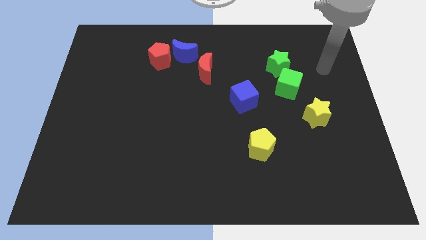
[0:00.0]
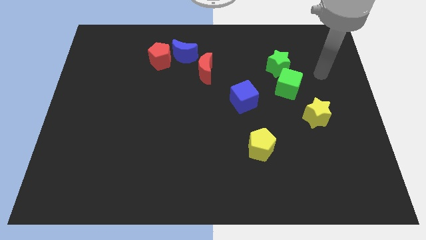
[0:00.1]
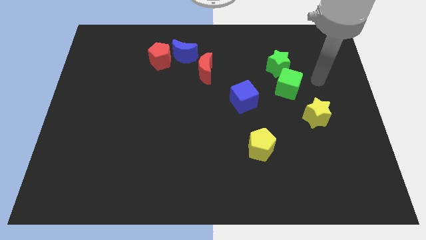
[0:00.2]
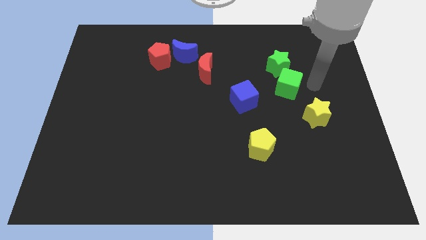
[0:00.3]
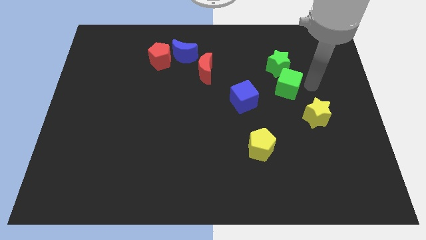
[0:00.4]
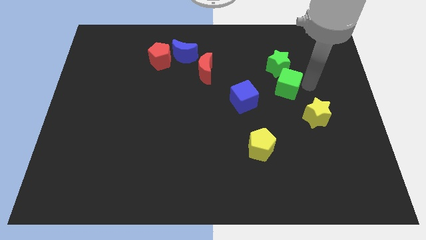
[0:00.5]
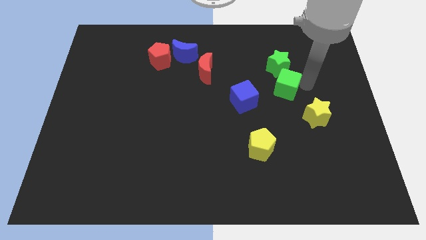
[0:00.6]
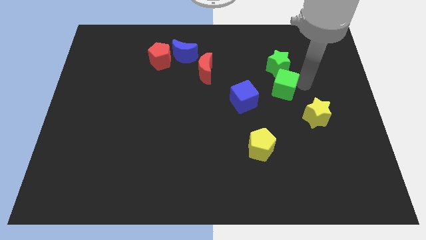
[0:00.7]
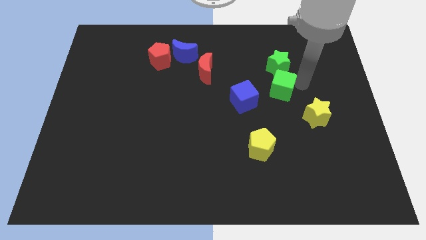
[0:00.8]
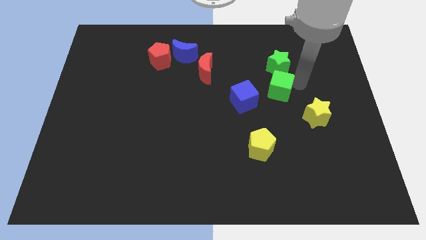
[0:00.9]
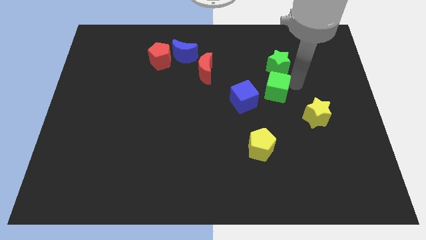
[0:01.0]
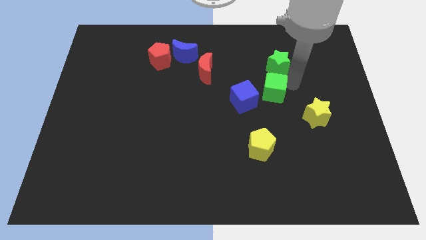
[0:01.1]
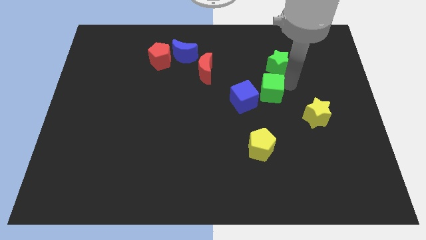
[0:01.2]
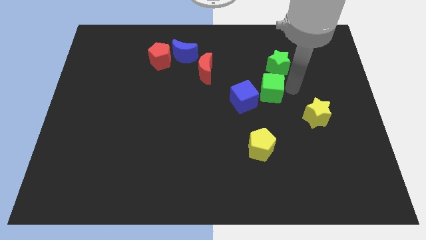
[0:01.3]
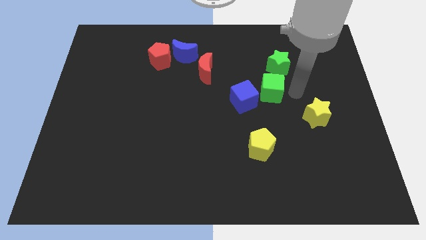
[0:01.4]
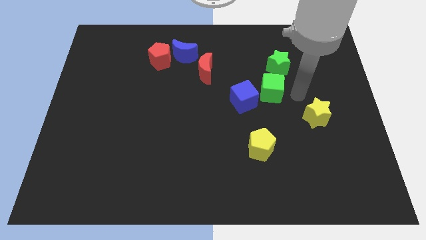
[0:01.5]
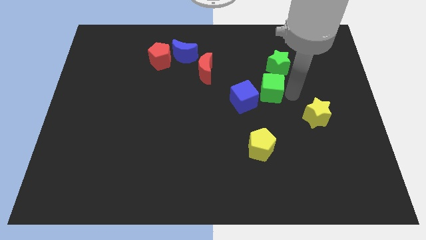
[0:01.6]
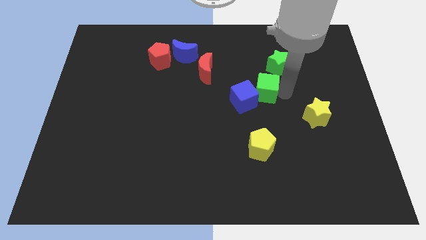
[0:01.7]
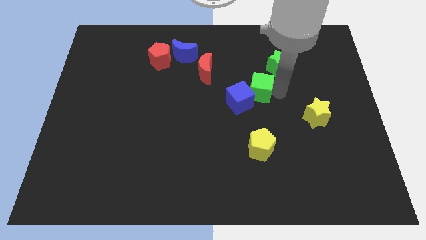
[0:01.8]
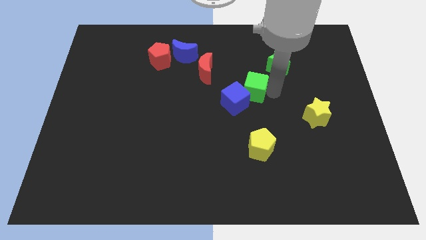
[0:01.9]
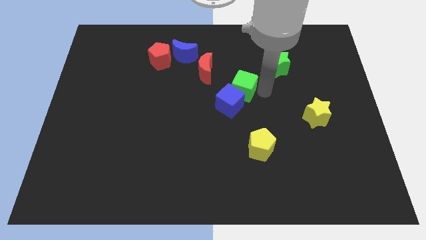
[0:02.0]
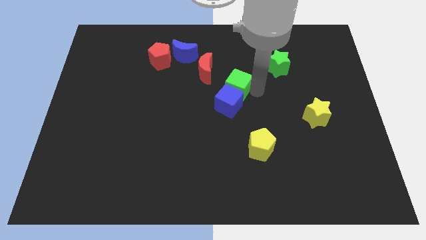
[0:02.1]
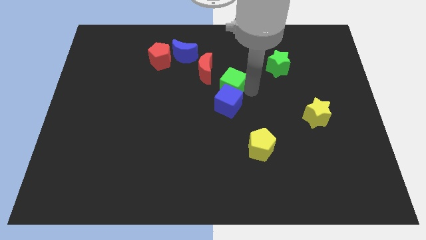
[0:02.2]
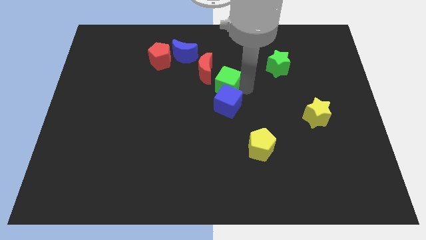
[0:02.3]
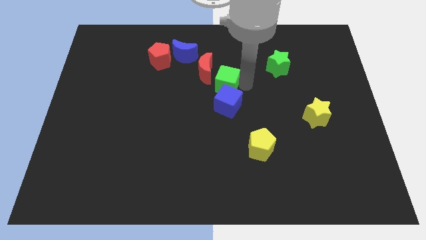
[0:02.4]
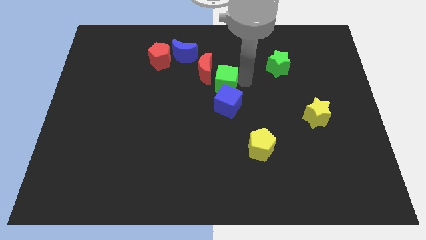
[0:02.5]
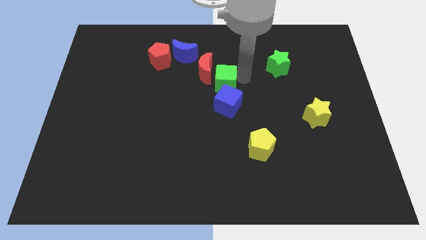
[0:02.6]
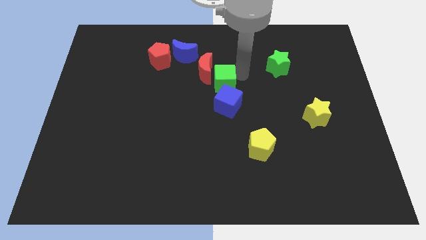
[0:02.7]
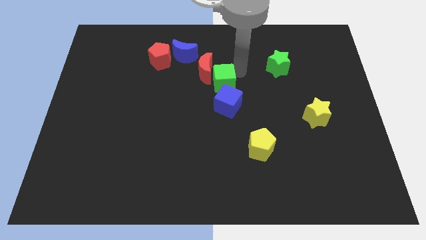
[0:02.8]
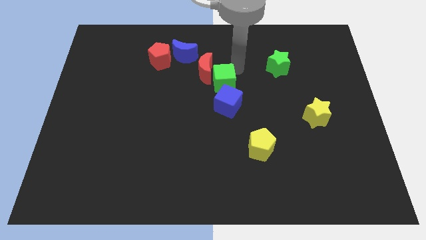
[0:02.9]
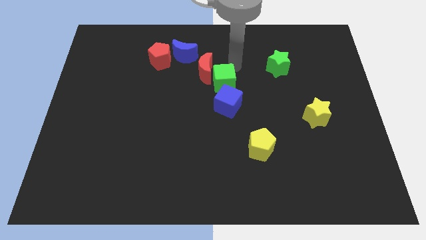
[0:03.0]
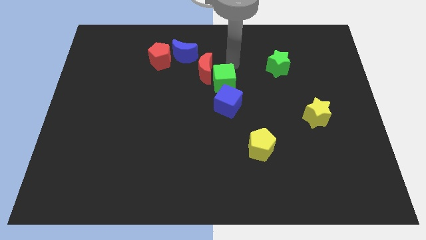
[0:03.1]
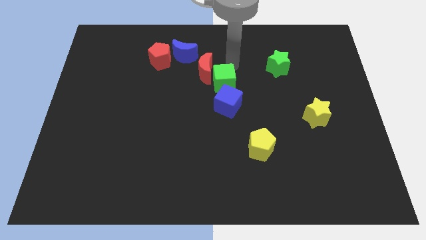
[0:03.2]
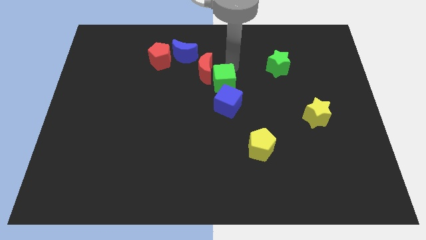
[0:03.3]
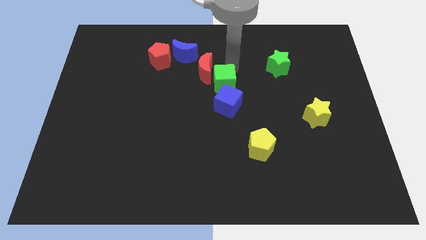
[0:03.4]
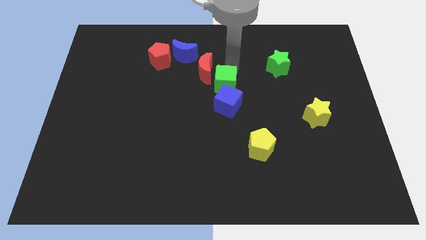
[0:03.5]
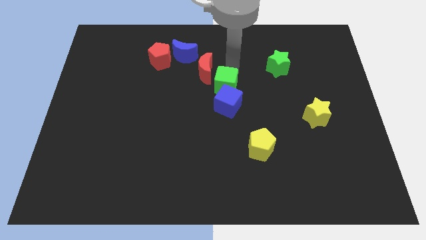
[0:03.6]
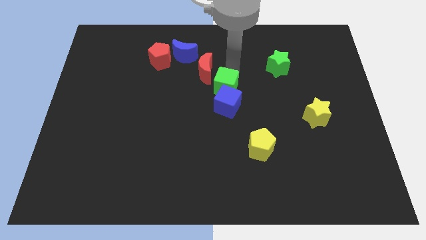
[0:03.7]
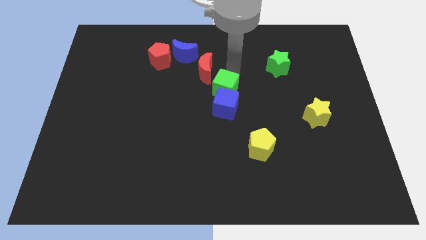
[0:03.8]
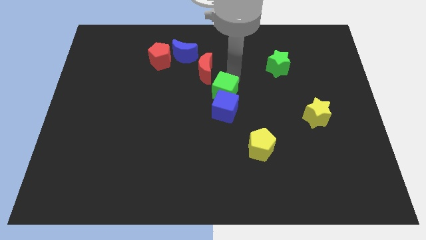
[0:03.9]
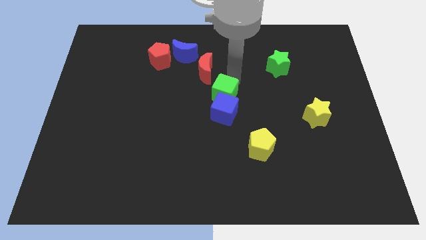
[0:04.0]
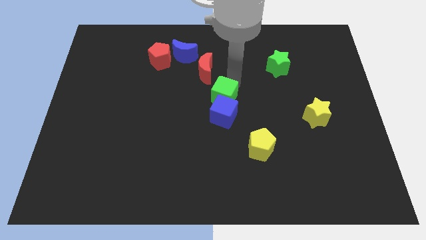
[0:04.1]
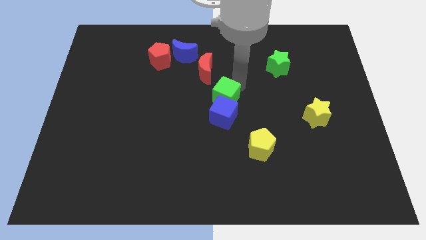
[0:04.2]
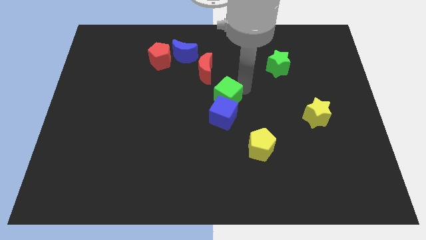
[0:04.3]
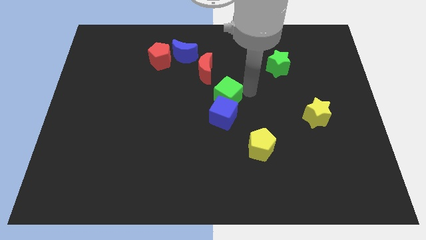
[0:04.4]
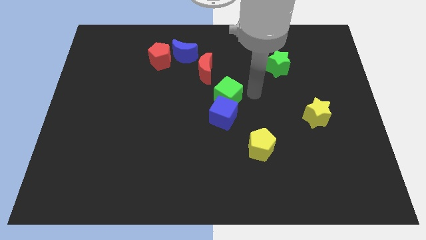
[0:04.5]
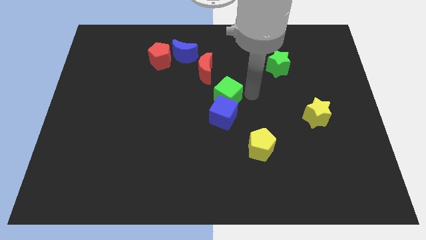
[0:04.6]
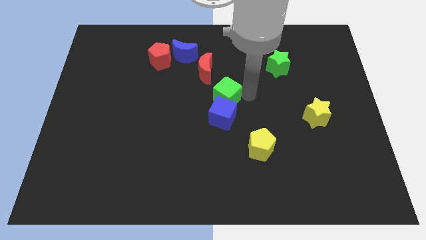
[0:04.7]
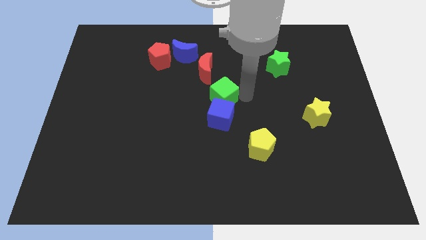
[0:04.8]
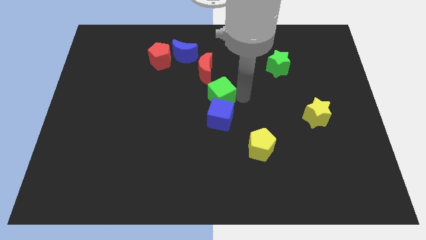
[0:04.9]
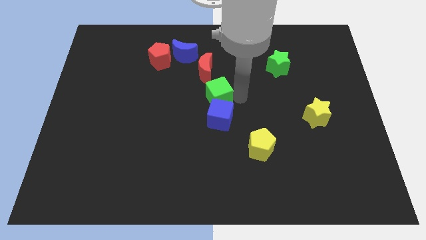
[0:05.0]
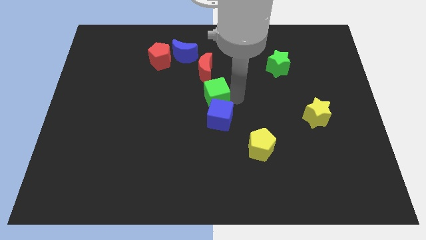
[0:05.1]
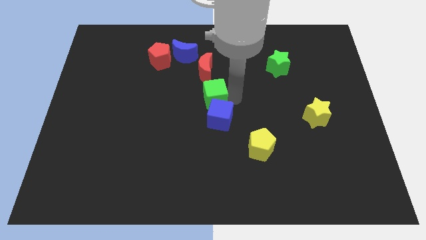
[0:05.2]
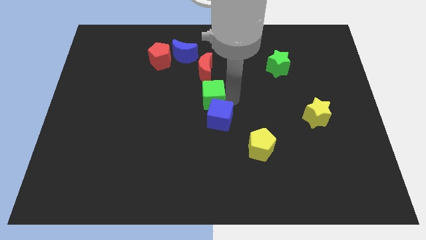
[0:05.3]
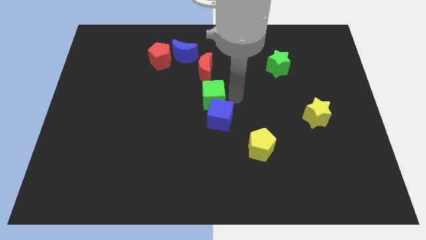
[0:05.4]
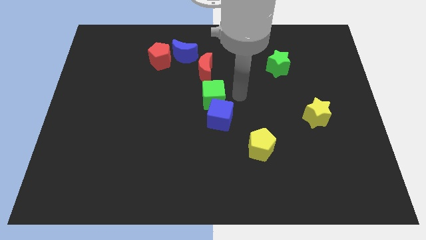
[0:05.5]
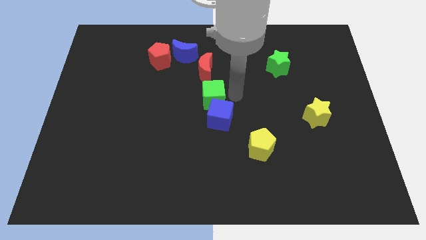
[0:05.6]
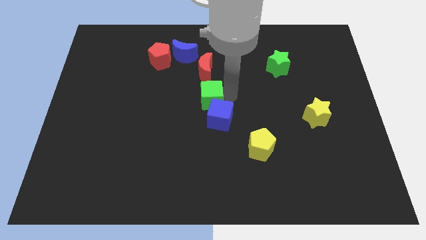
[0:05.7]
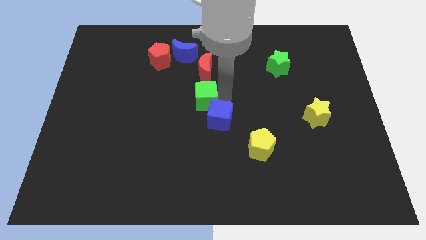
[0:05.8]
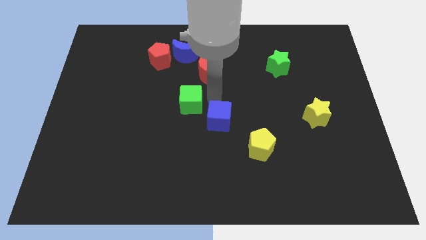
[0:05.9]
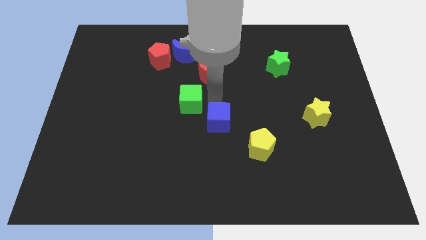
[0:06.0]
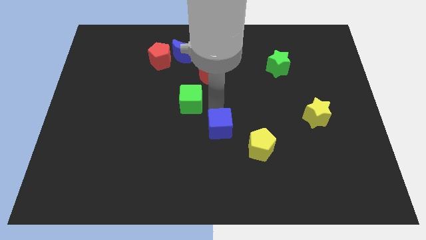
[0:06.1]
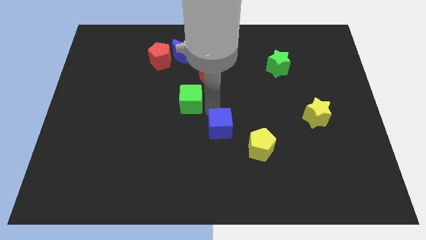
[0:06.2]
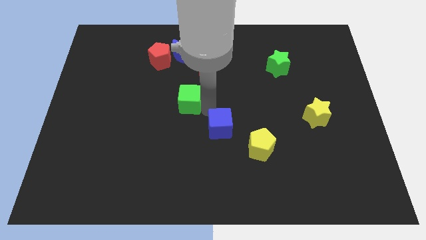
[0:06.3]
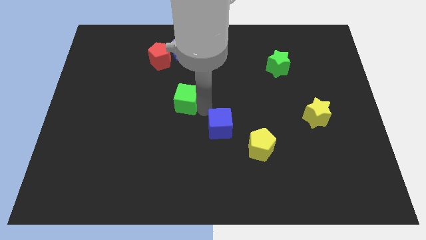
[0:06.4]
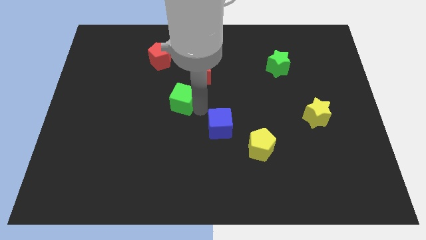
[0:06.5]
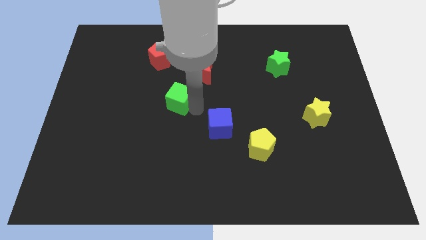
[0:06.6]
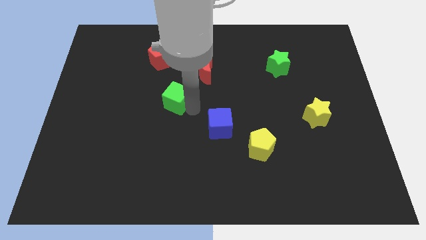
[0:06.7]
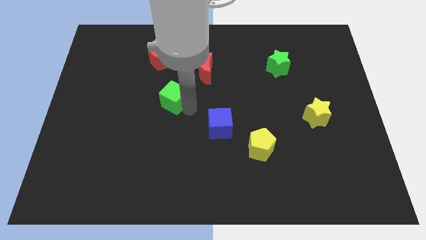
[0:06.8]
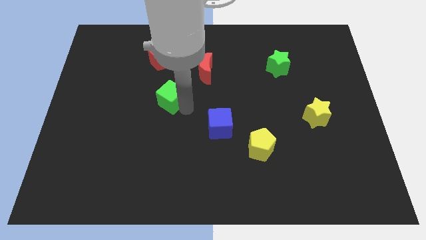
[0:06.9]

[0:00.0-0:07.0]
push the green cube to the bottom of the red pentagon

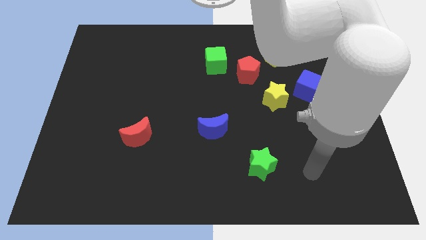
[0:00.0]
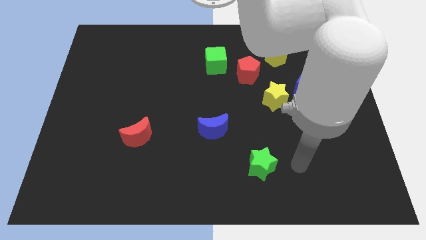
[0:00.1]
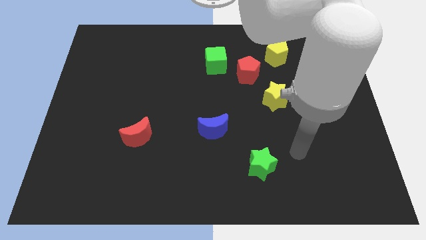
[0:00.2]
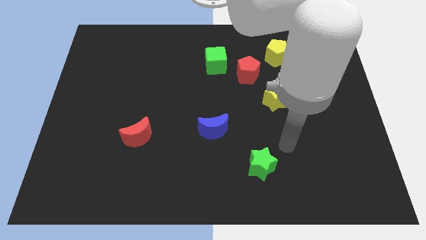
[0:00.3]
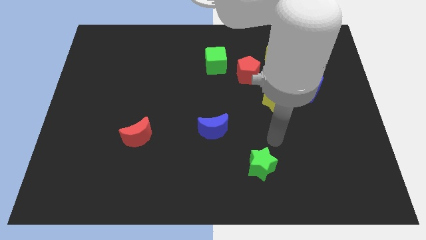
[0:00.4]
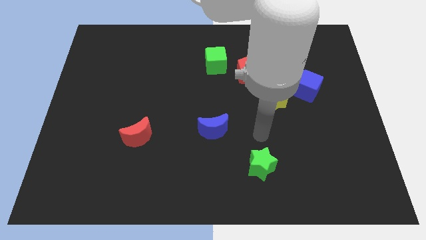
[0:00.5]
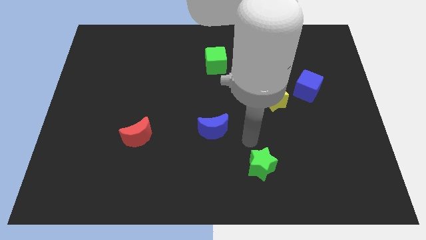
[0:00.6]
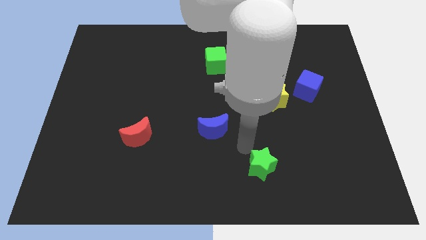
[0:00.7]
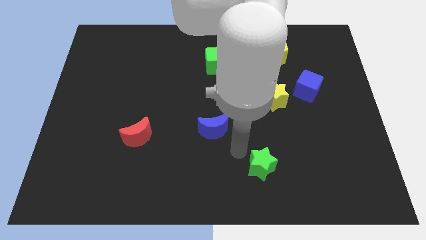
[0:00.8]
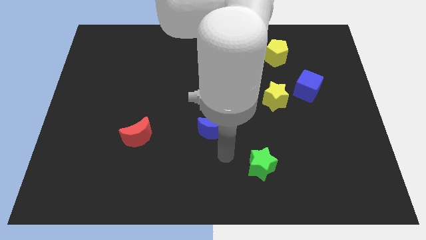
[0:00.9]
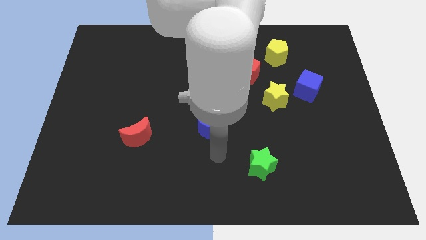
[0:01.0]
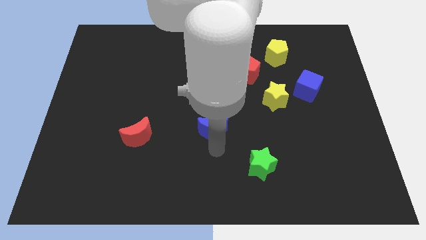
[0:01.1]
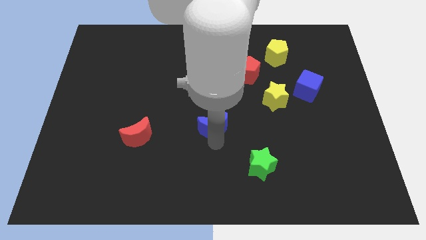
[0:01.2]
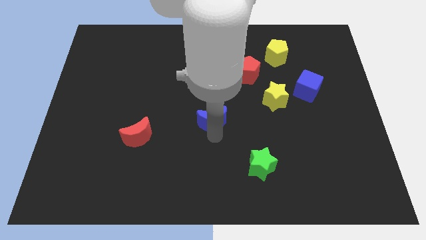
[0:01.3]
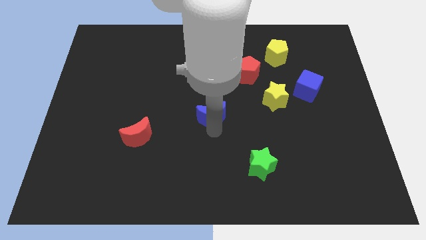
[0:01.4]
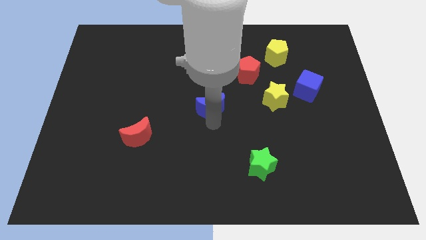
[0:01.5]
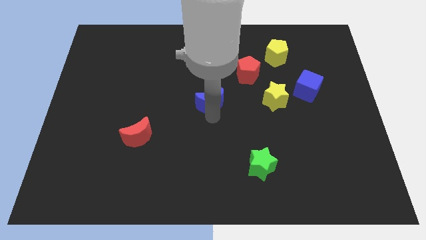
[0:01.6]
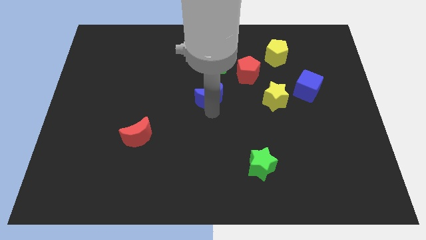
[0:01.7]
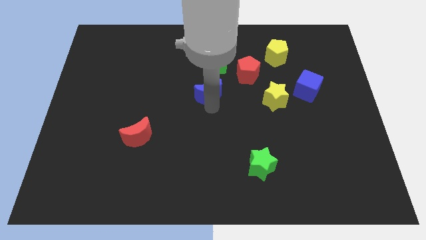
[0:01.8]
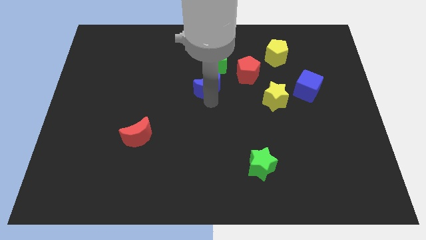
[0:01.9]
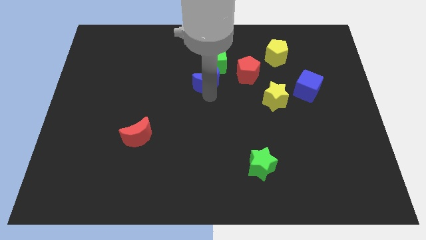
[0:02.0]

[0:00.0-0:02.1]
slide the blue moon to the left side of the red pentagon
